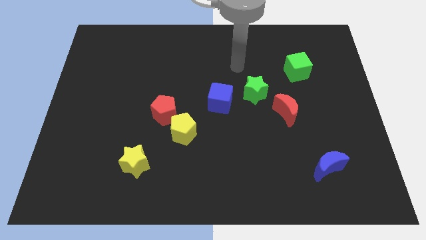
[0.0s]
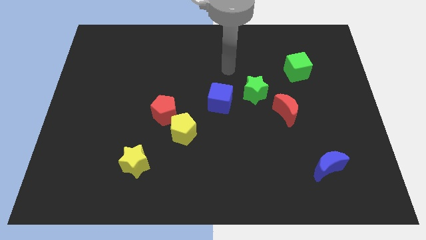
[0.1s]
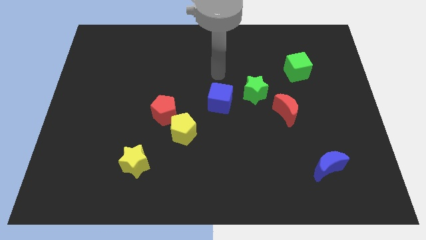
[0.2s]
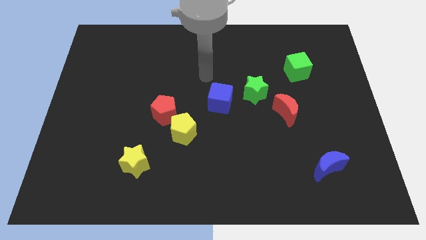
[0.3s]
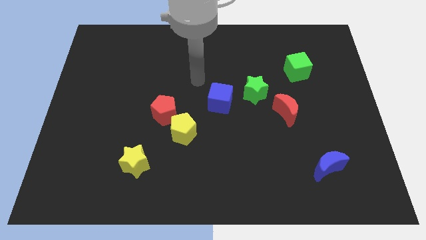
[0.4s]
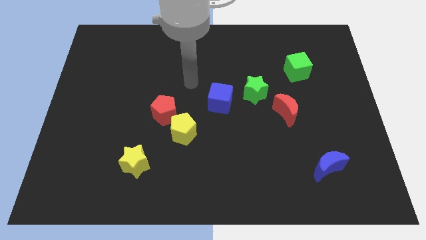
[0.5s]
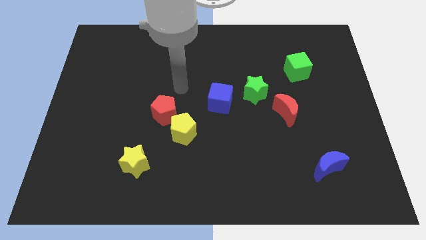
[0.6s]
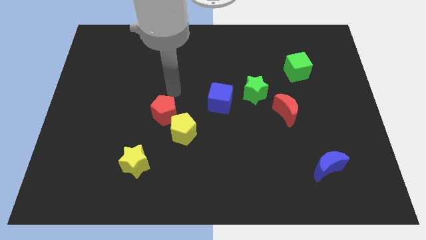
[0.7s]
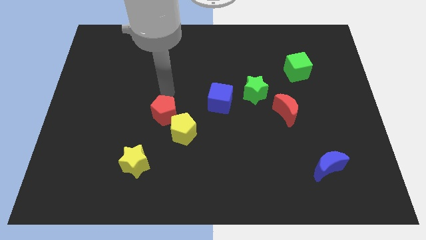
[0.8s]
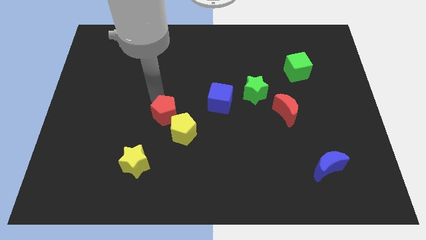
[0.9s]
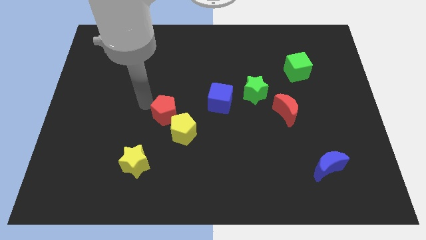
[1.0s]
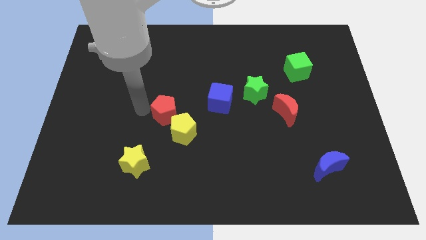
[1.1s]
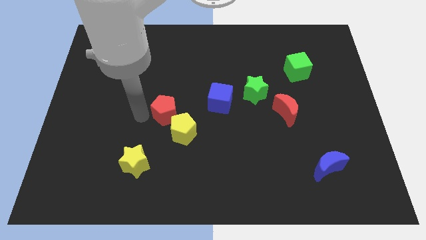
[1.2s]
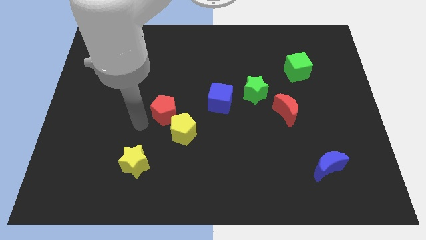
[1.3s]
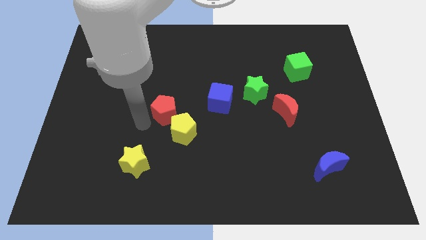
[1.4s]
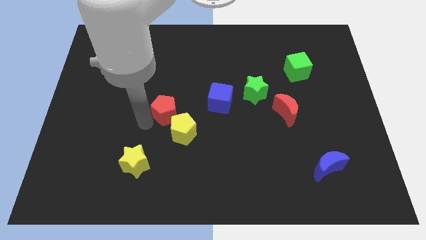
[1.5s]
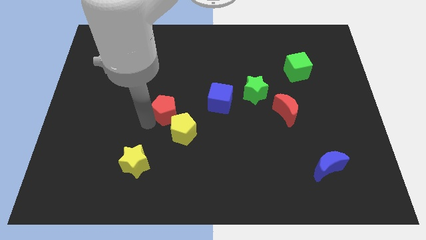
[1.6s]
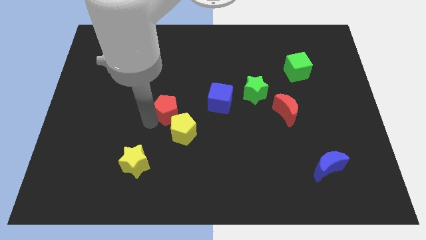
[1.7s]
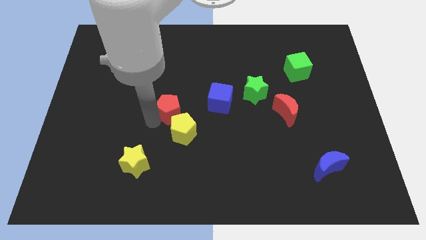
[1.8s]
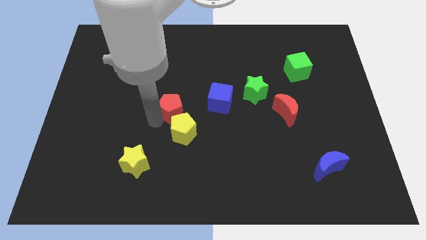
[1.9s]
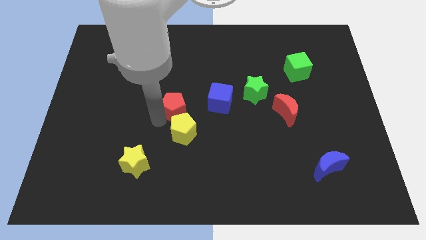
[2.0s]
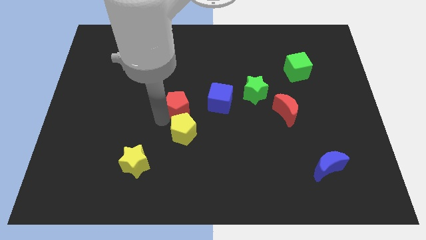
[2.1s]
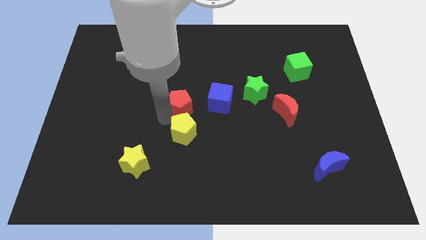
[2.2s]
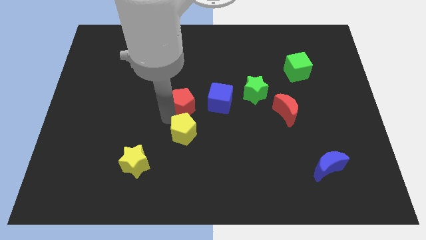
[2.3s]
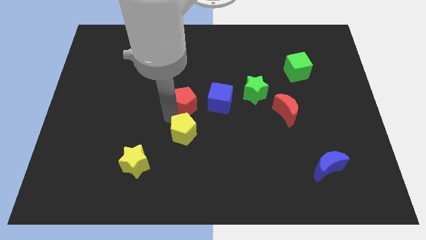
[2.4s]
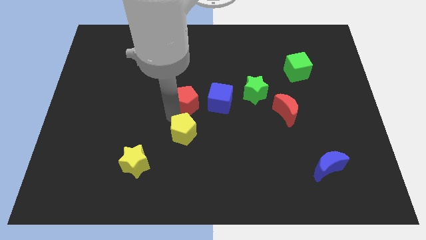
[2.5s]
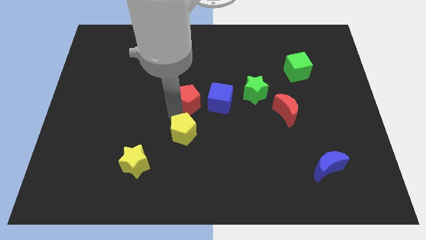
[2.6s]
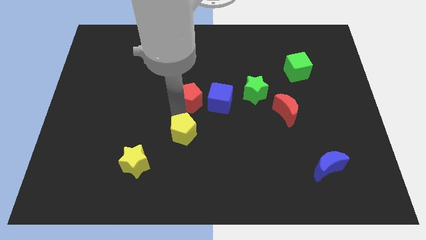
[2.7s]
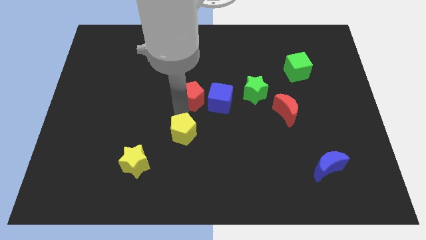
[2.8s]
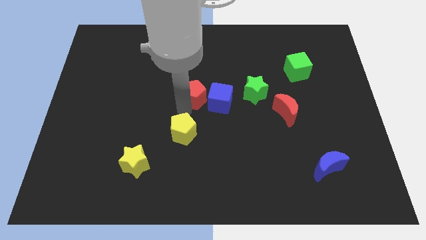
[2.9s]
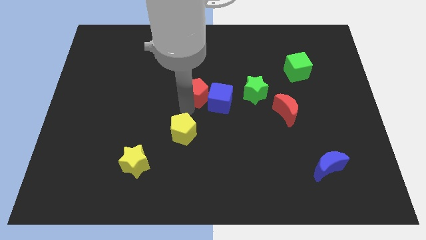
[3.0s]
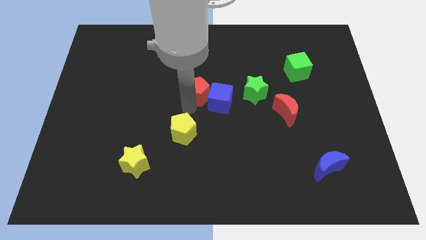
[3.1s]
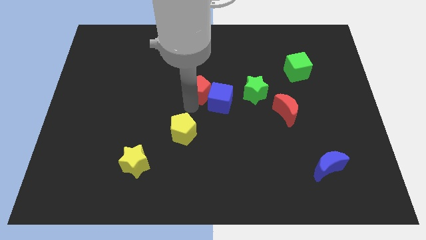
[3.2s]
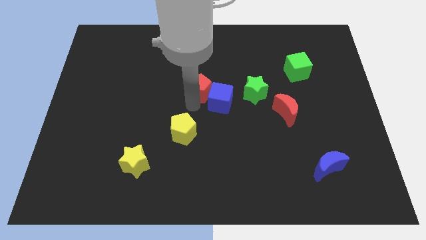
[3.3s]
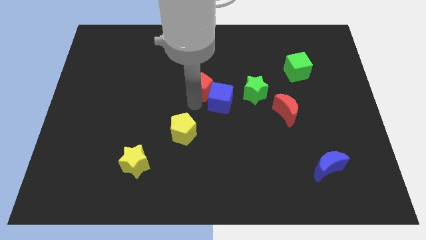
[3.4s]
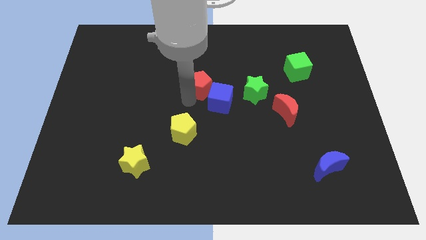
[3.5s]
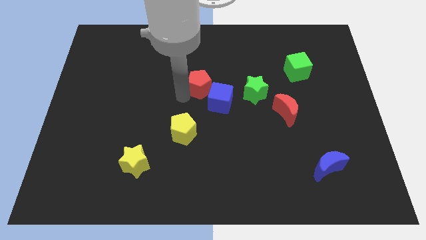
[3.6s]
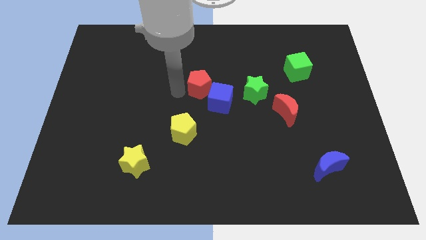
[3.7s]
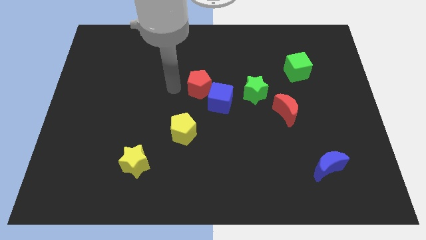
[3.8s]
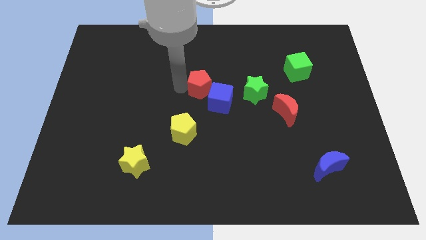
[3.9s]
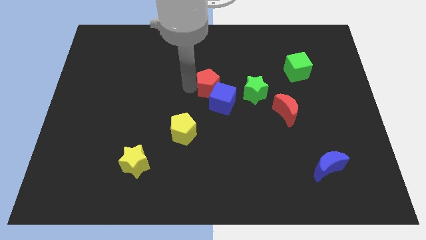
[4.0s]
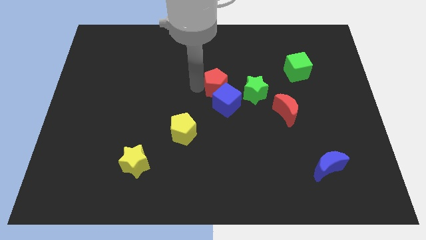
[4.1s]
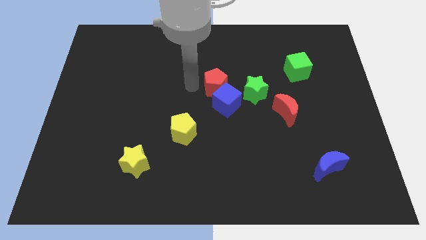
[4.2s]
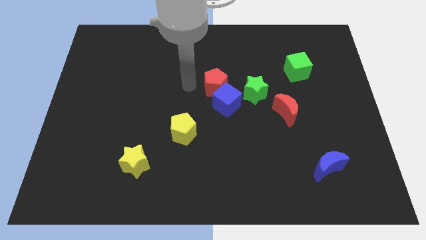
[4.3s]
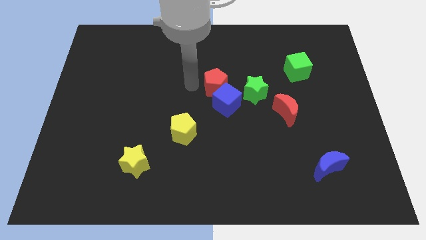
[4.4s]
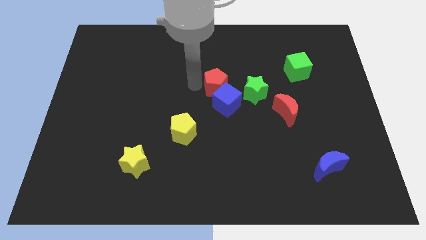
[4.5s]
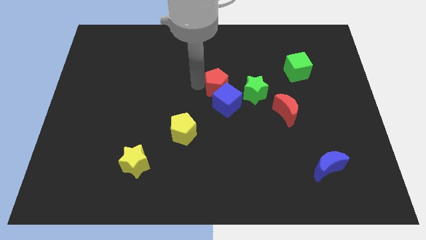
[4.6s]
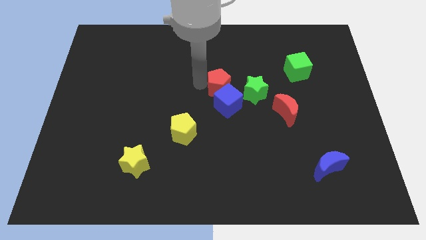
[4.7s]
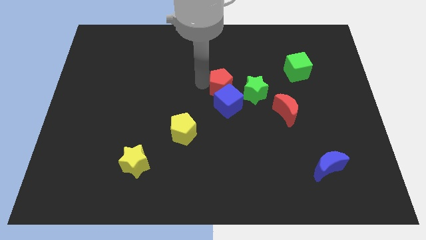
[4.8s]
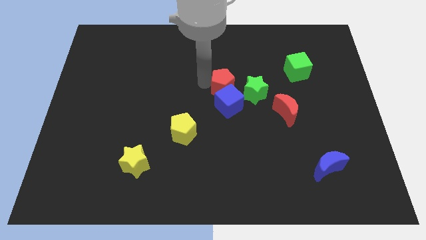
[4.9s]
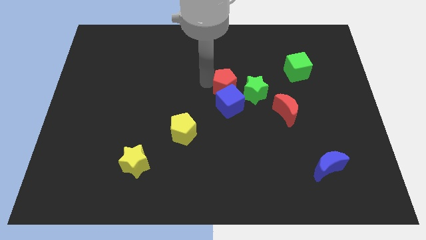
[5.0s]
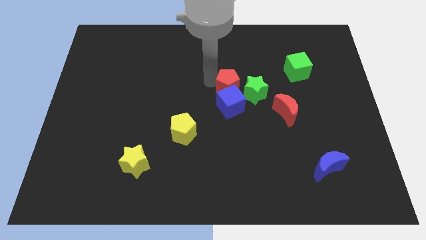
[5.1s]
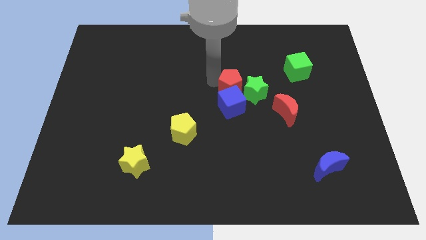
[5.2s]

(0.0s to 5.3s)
push the red pentagon next to the green star

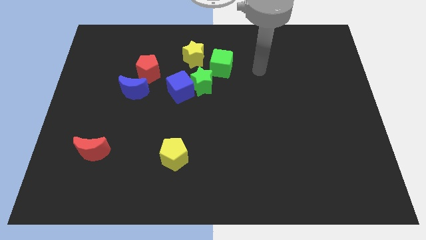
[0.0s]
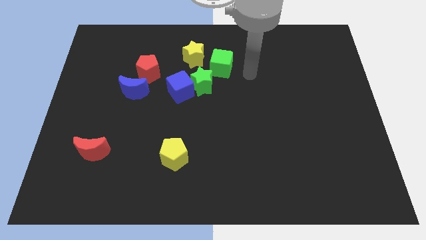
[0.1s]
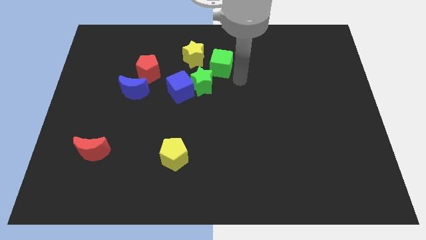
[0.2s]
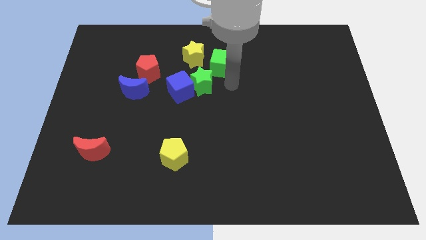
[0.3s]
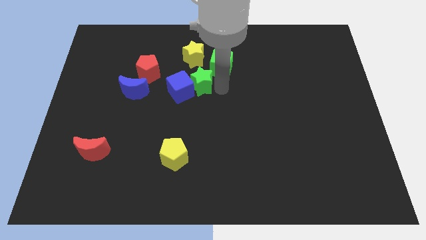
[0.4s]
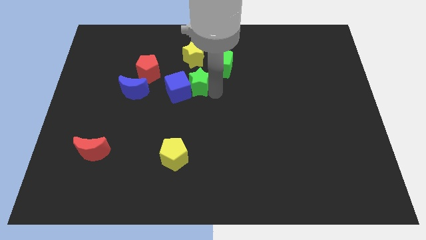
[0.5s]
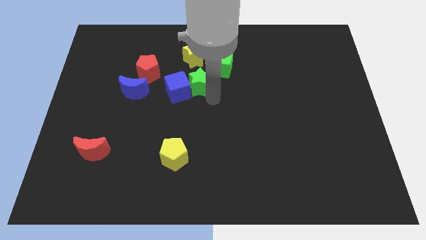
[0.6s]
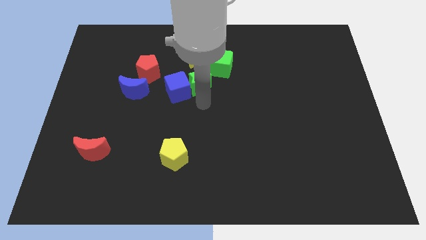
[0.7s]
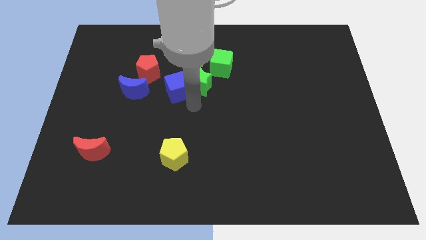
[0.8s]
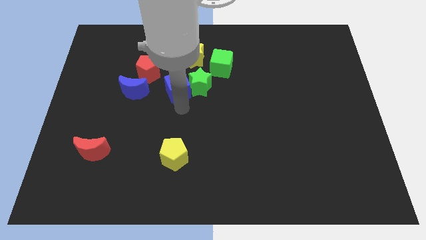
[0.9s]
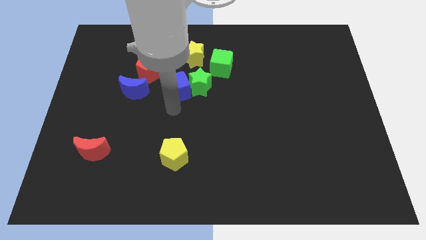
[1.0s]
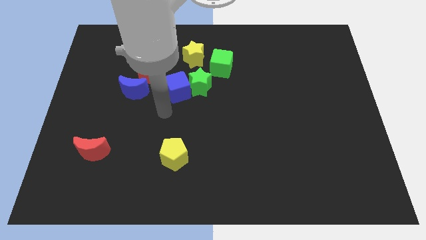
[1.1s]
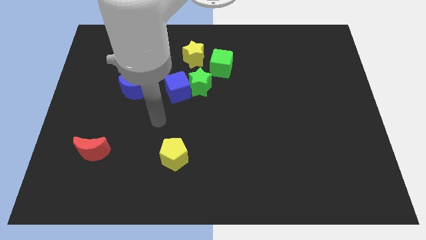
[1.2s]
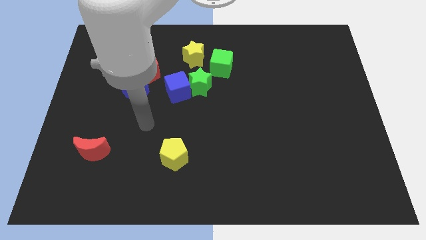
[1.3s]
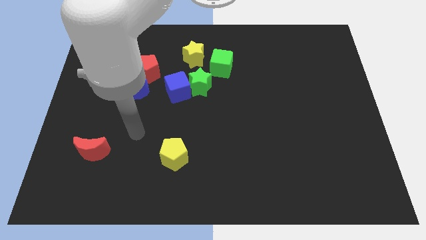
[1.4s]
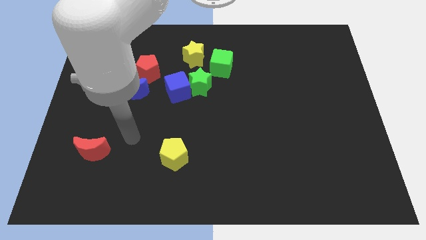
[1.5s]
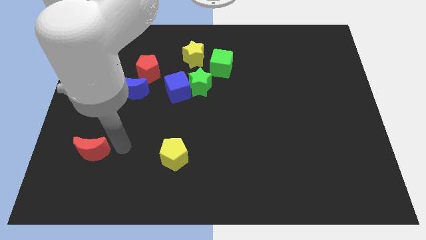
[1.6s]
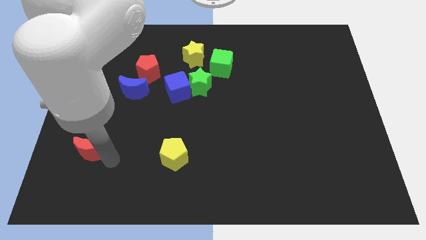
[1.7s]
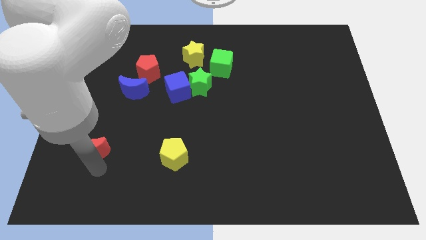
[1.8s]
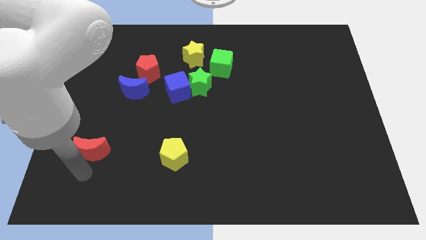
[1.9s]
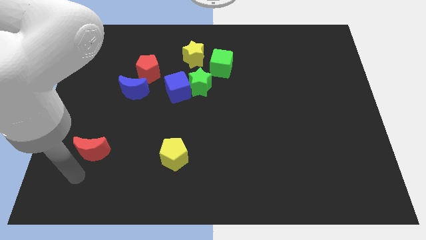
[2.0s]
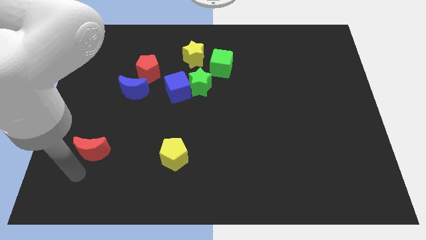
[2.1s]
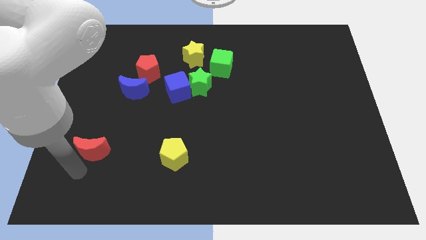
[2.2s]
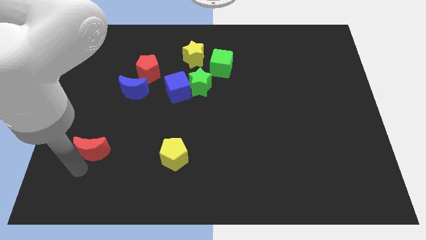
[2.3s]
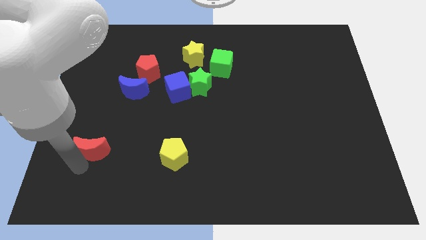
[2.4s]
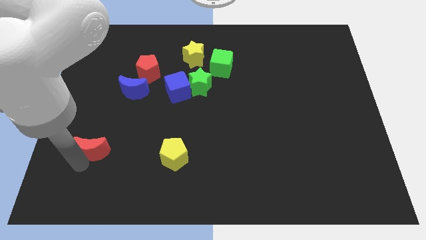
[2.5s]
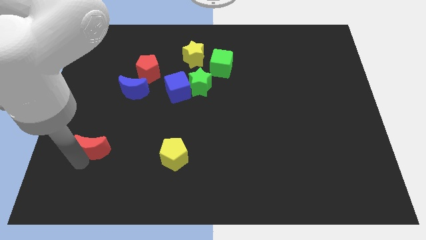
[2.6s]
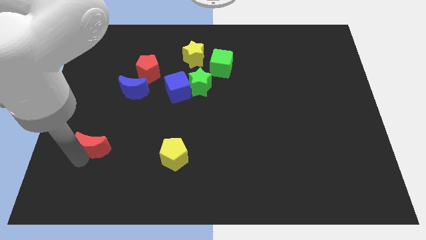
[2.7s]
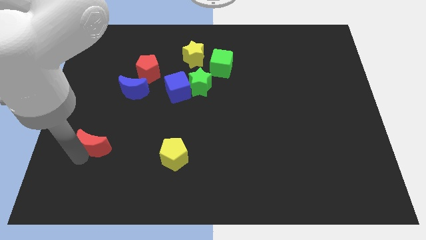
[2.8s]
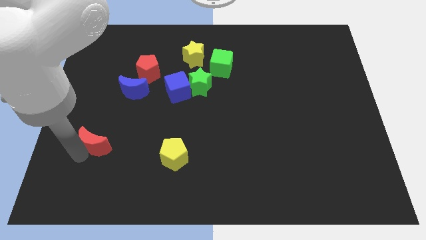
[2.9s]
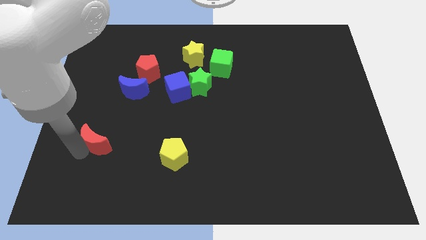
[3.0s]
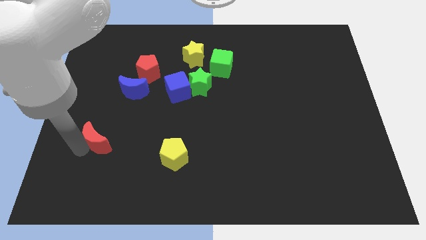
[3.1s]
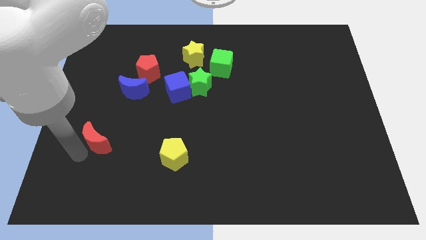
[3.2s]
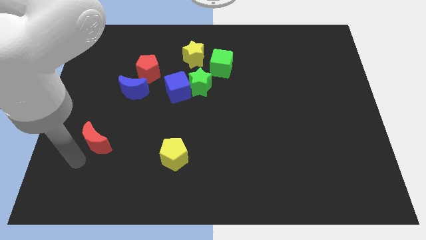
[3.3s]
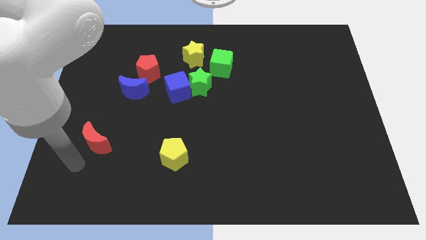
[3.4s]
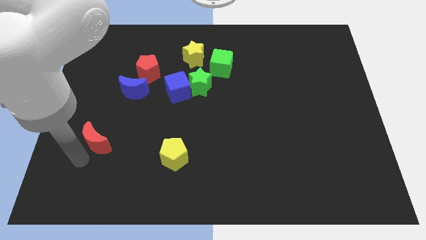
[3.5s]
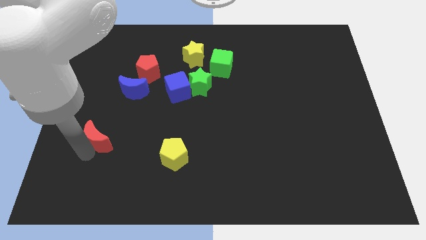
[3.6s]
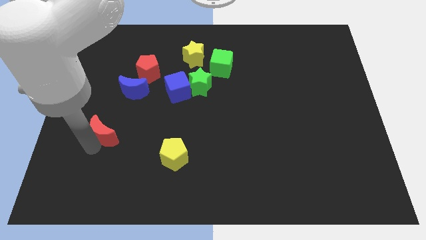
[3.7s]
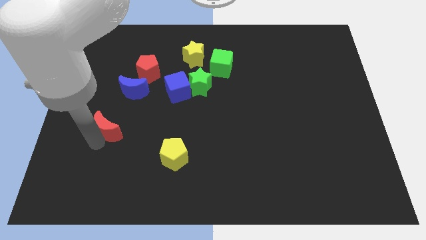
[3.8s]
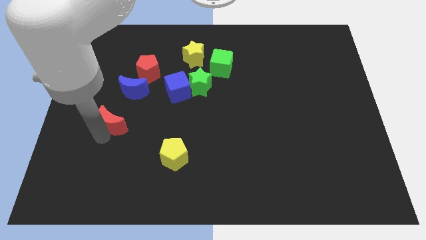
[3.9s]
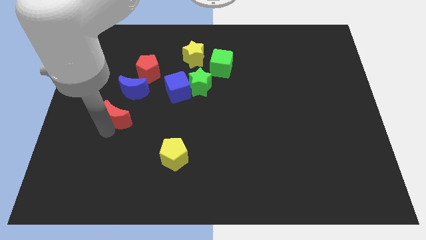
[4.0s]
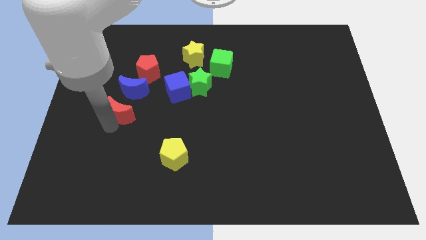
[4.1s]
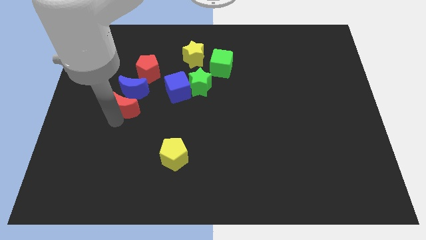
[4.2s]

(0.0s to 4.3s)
slide the red moon towards the blue moon
